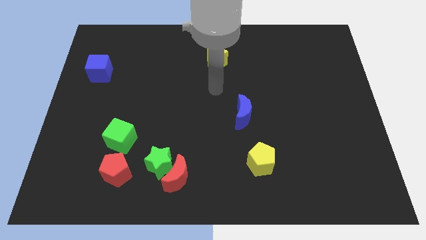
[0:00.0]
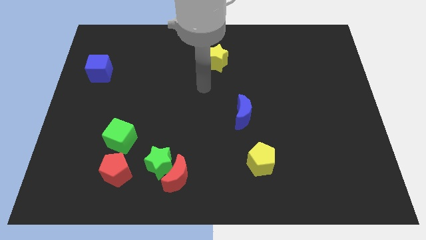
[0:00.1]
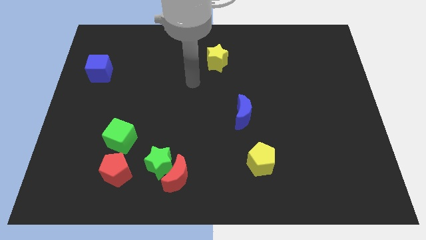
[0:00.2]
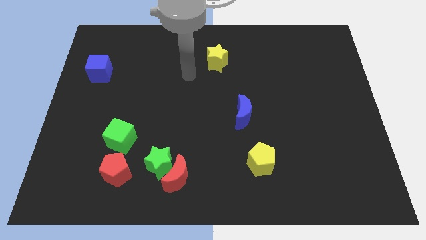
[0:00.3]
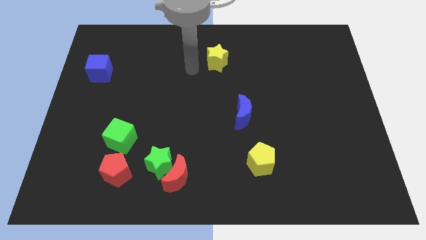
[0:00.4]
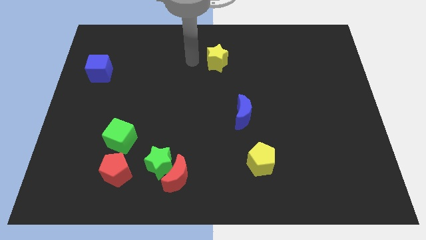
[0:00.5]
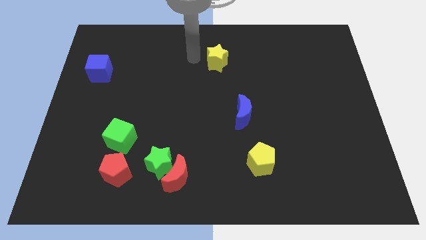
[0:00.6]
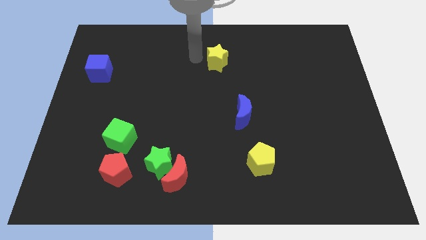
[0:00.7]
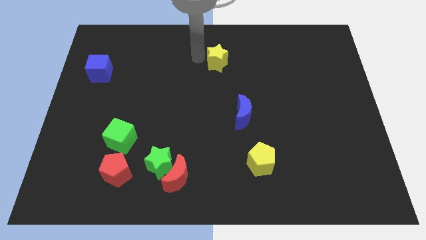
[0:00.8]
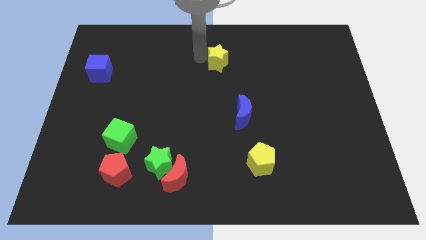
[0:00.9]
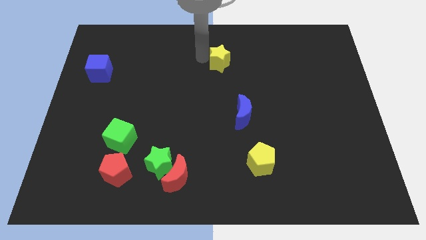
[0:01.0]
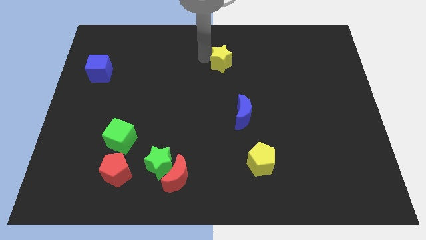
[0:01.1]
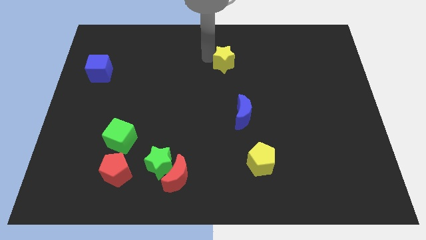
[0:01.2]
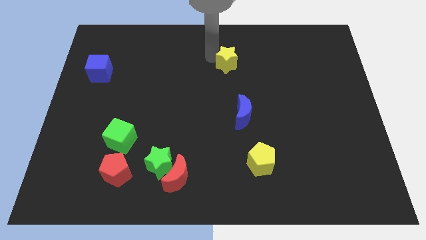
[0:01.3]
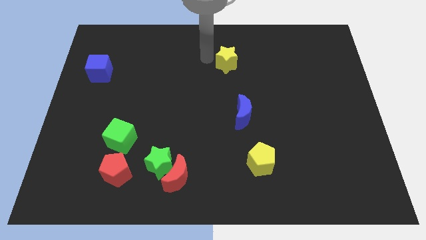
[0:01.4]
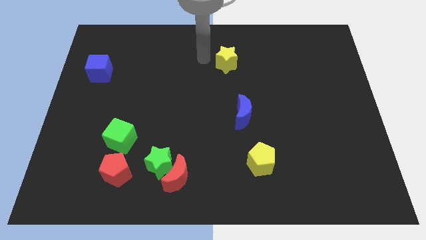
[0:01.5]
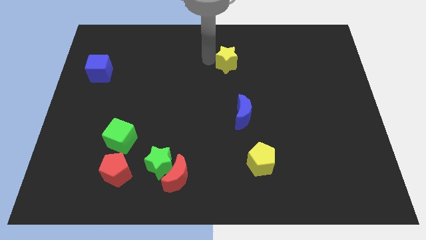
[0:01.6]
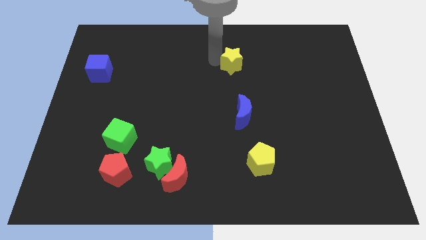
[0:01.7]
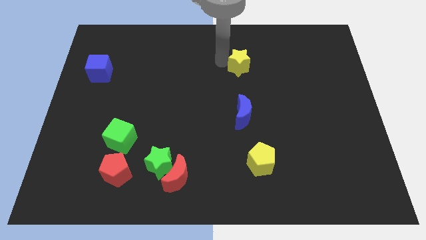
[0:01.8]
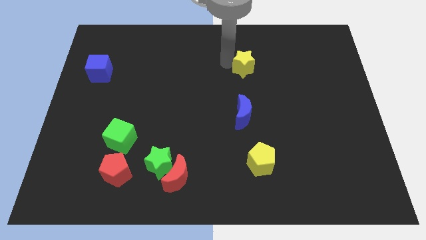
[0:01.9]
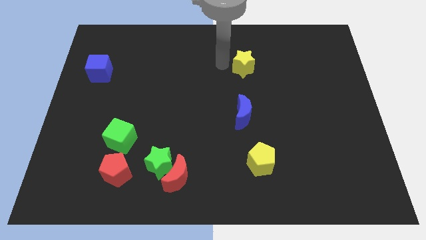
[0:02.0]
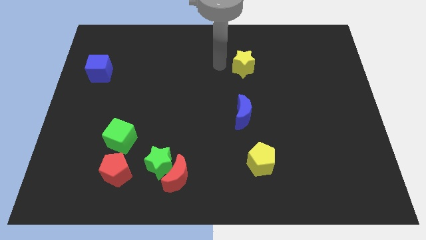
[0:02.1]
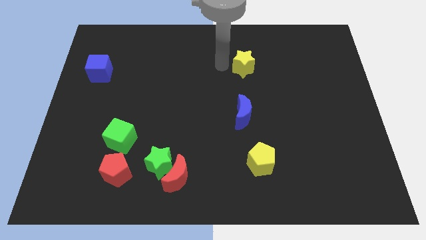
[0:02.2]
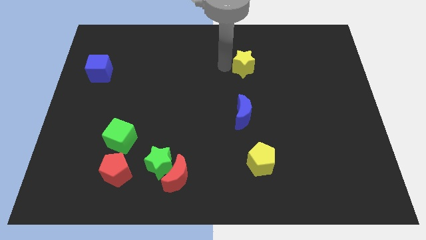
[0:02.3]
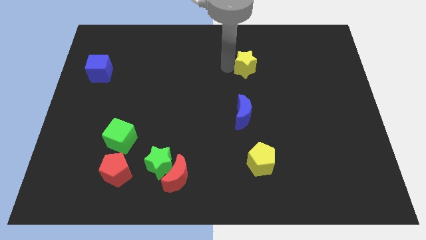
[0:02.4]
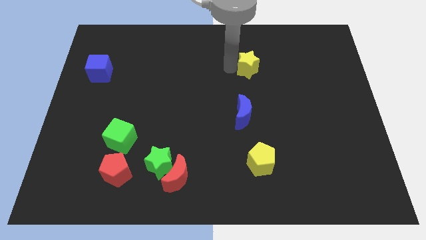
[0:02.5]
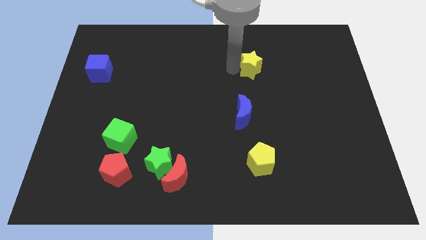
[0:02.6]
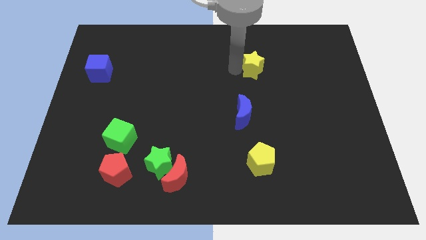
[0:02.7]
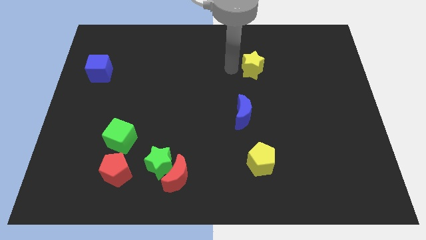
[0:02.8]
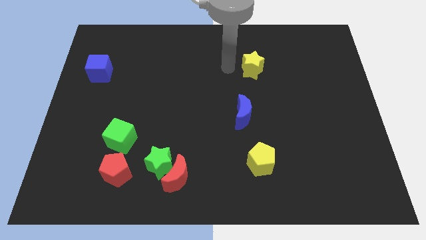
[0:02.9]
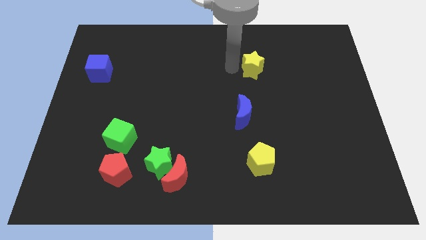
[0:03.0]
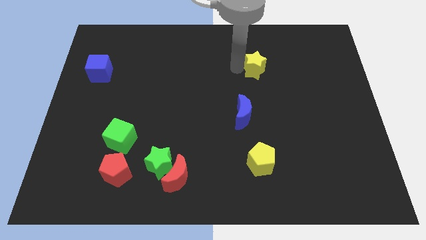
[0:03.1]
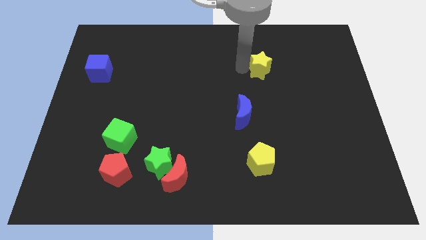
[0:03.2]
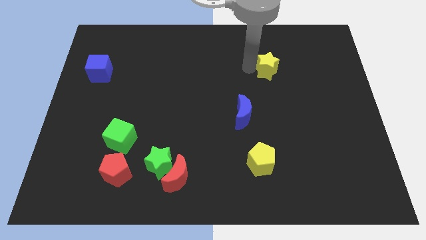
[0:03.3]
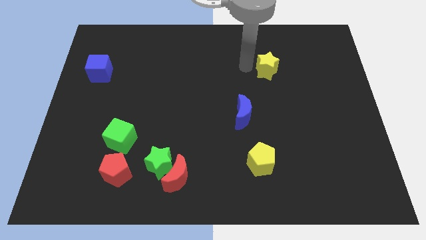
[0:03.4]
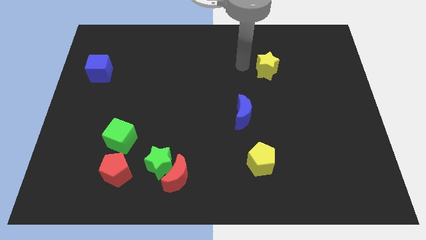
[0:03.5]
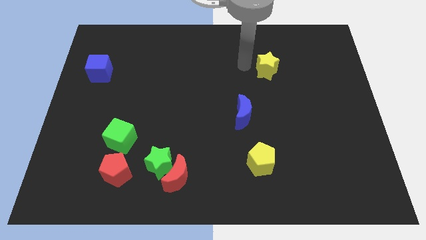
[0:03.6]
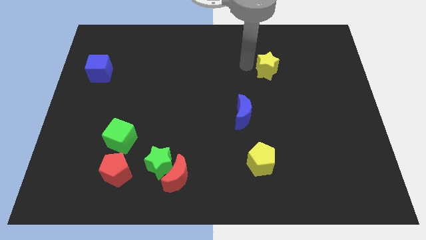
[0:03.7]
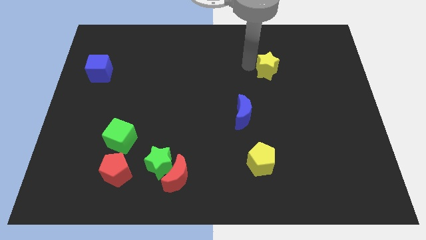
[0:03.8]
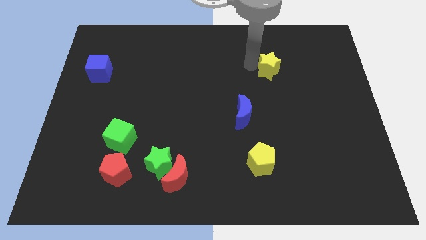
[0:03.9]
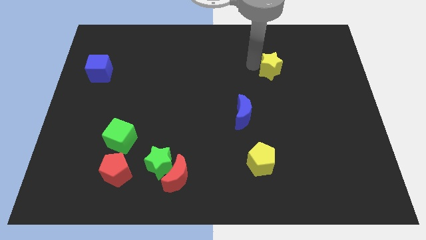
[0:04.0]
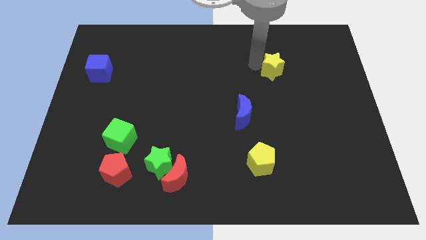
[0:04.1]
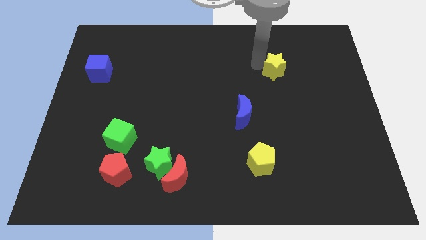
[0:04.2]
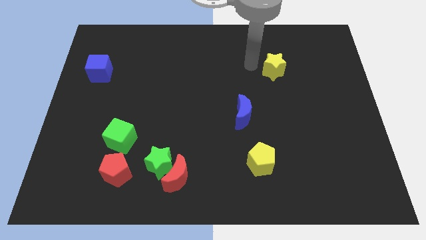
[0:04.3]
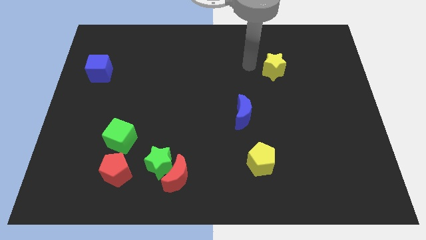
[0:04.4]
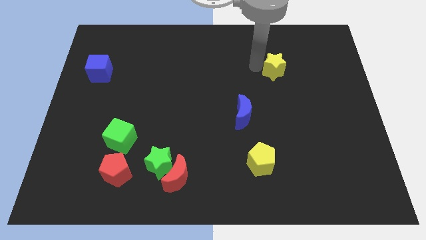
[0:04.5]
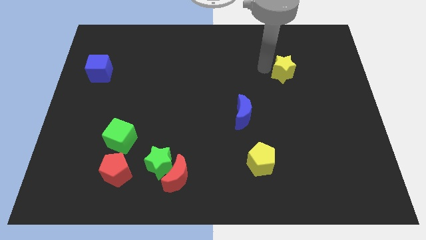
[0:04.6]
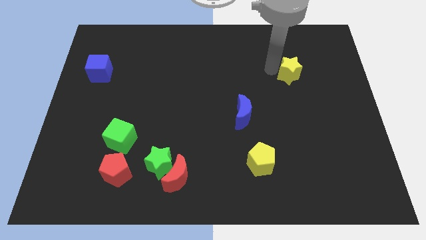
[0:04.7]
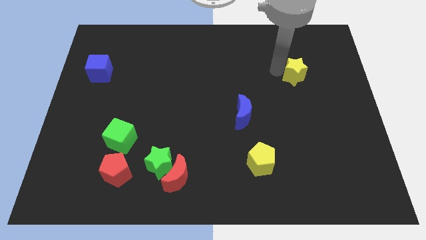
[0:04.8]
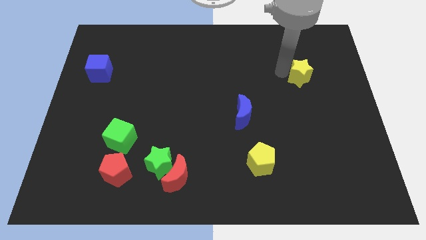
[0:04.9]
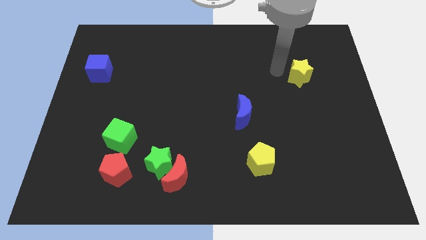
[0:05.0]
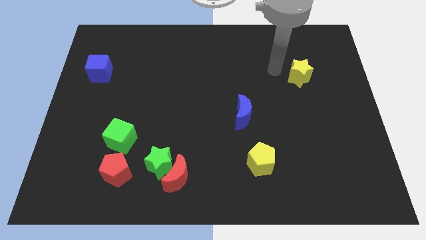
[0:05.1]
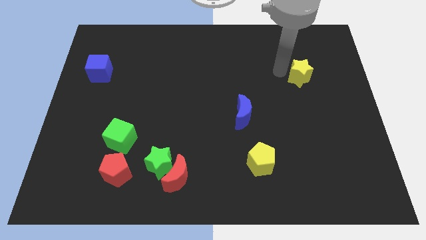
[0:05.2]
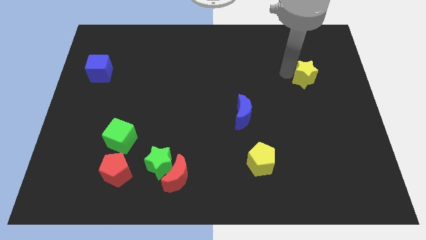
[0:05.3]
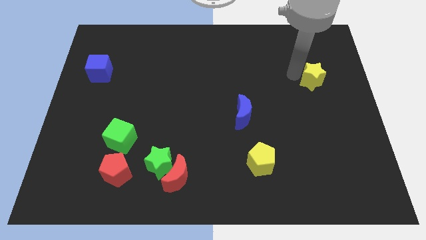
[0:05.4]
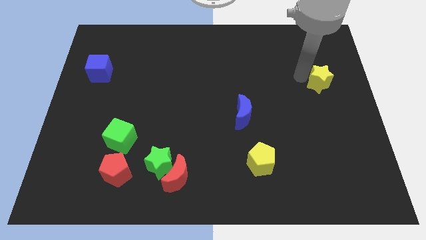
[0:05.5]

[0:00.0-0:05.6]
slide the yellow star to the center right
